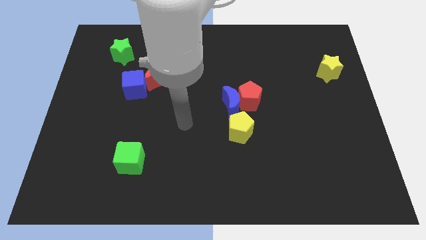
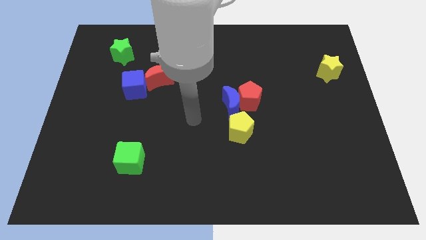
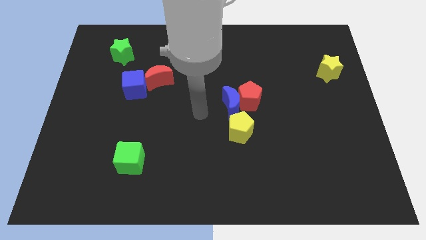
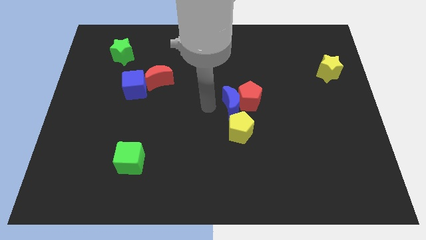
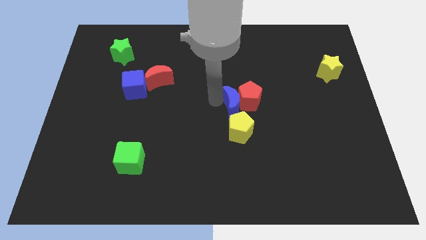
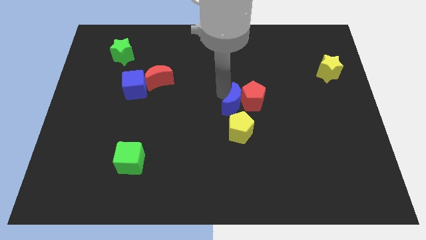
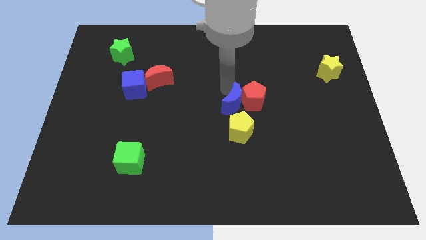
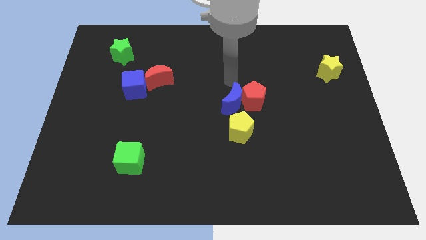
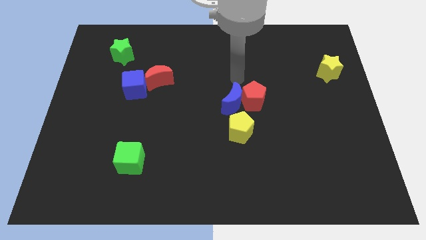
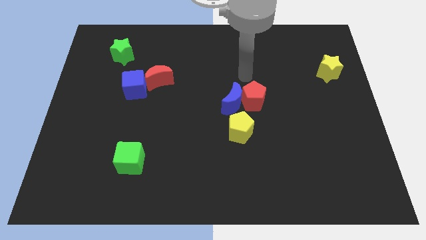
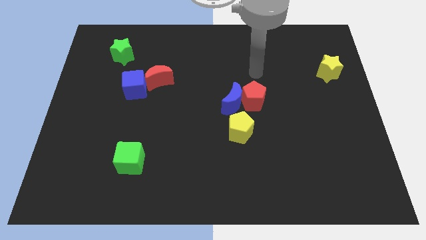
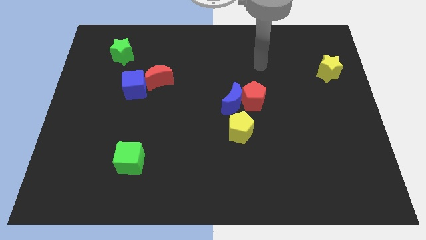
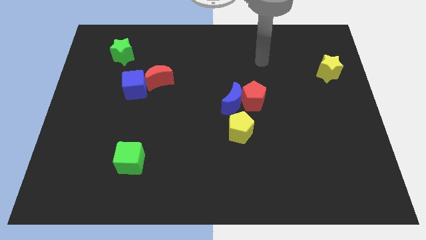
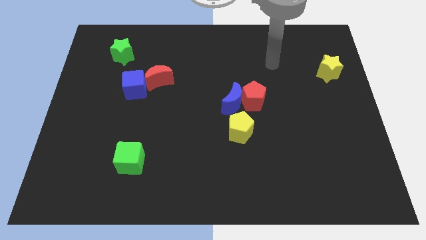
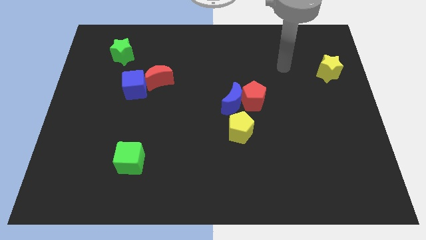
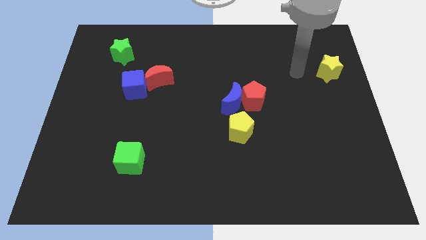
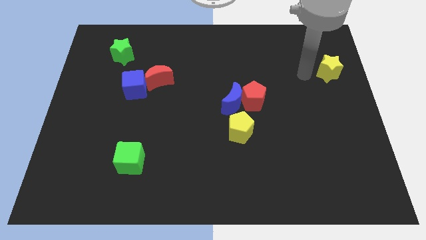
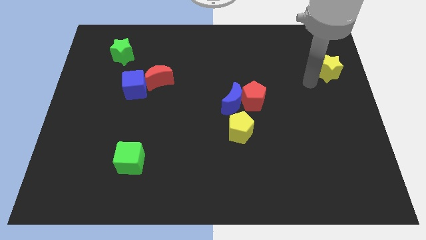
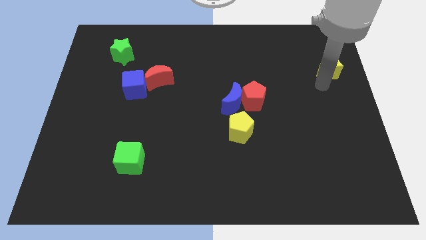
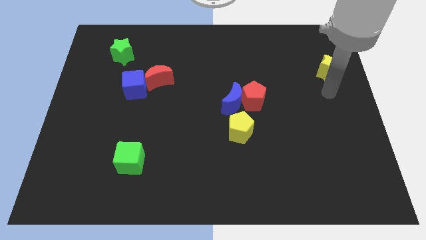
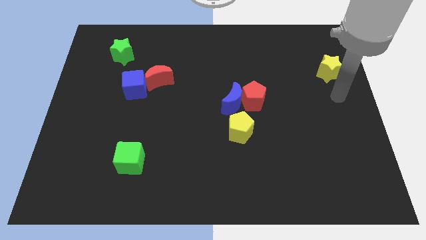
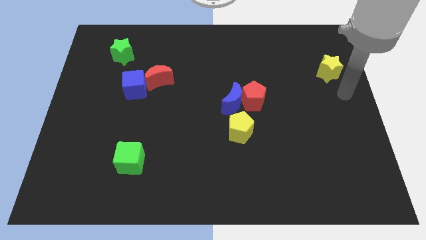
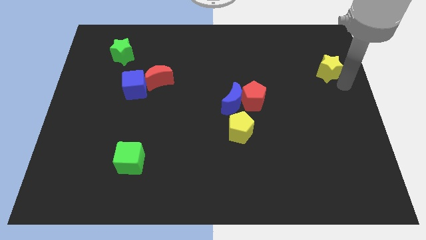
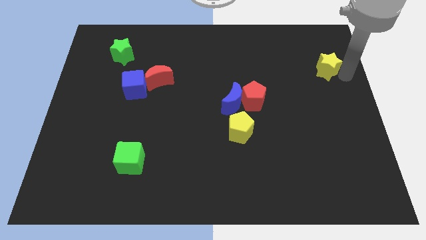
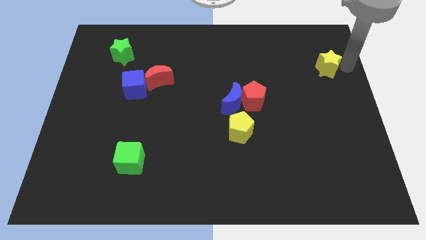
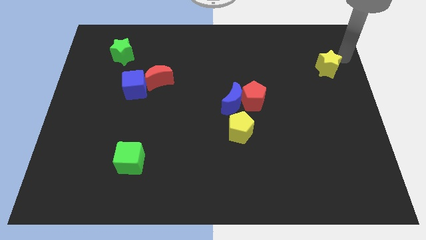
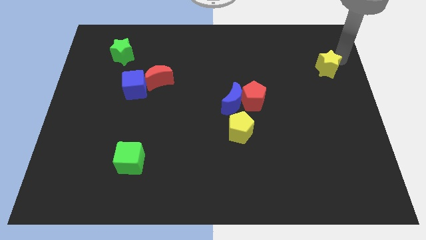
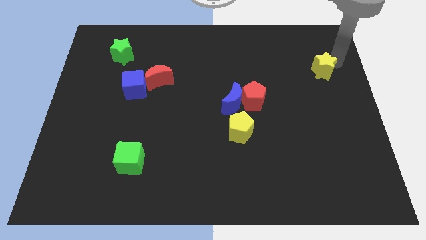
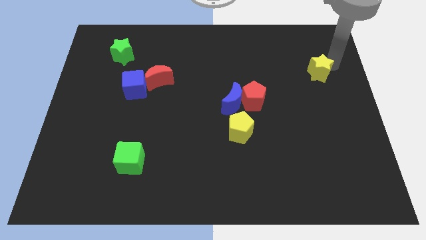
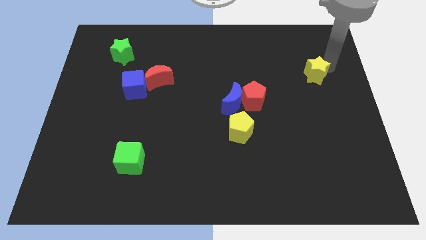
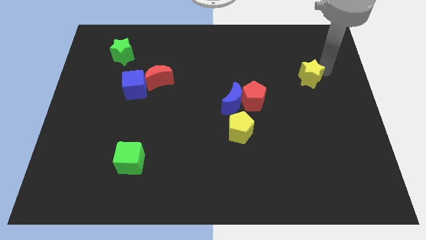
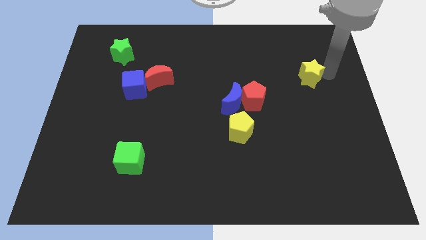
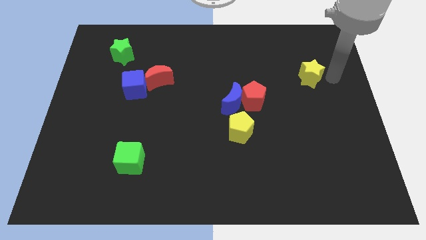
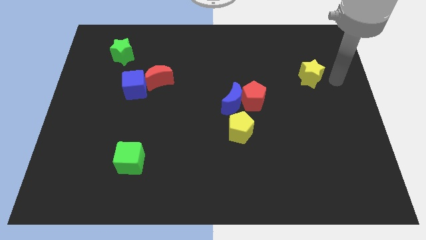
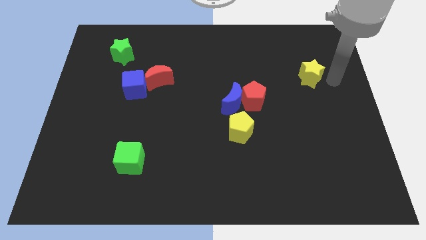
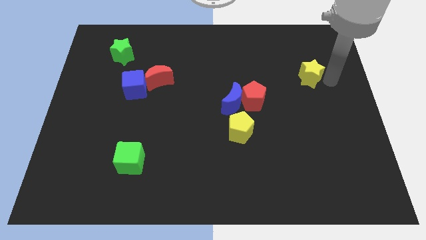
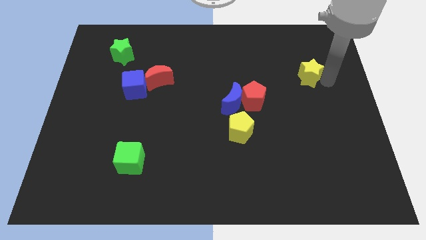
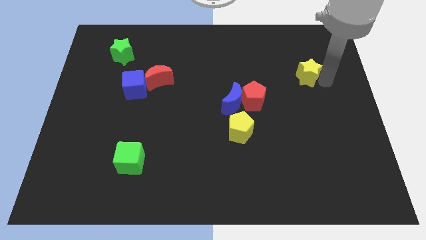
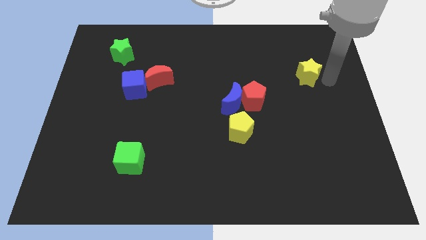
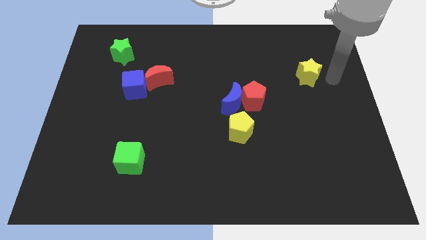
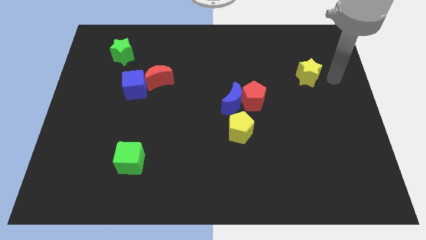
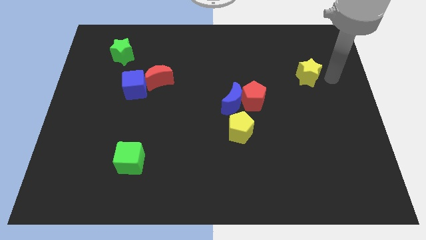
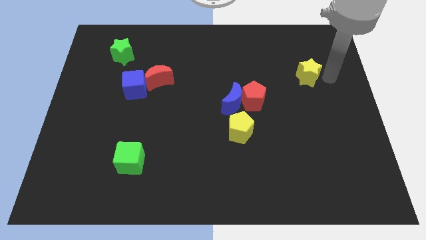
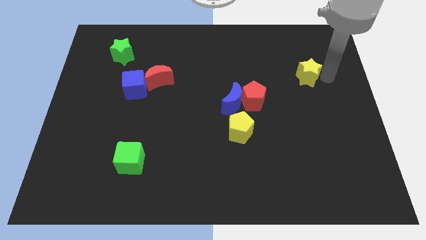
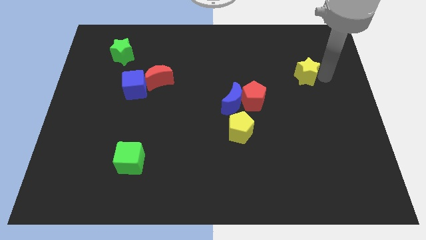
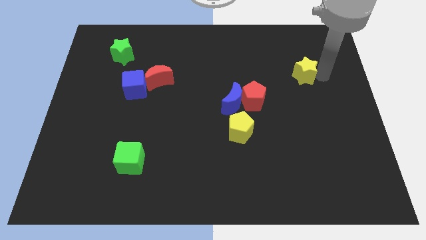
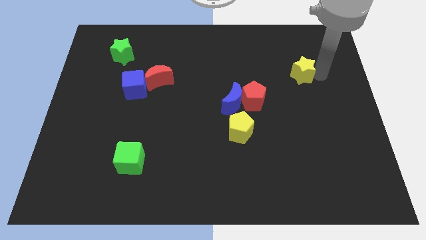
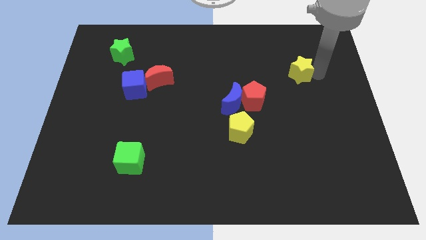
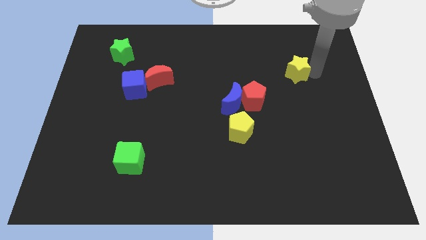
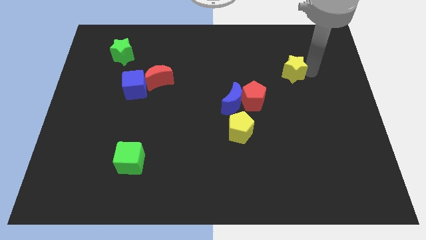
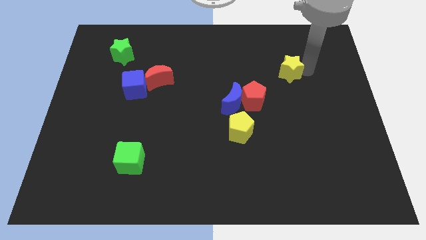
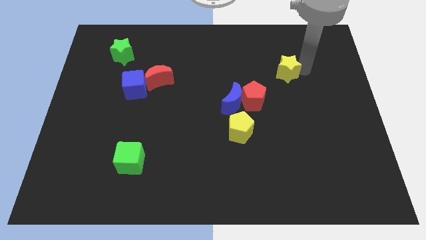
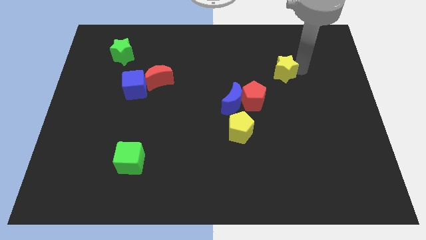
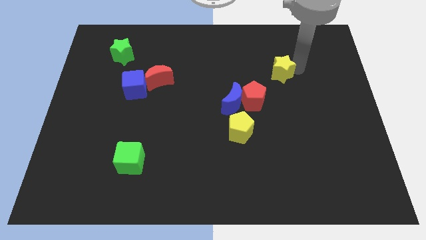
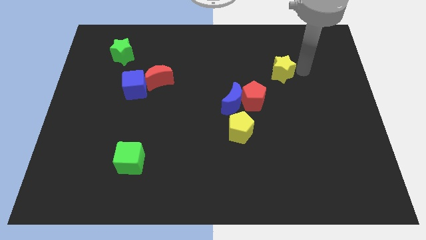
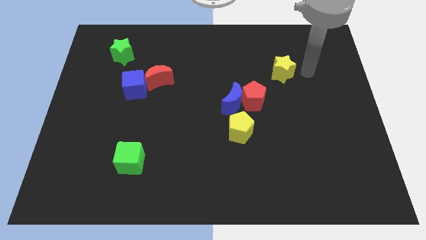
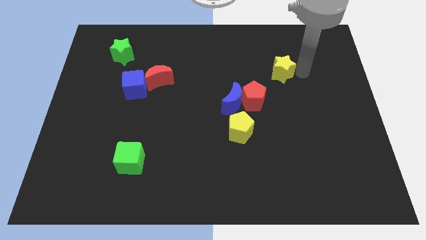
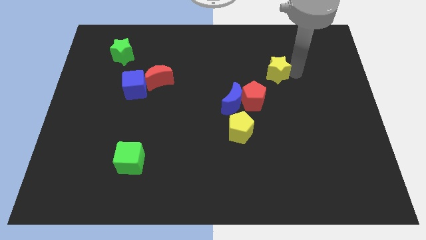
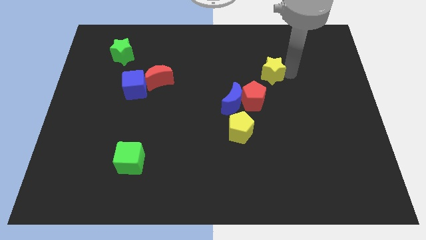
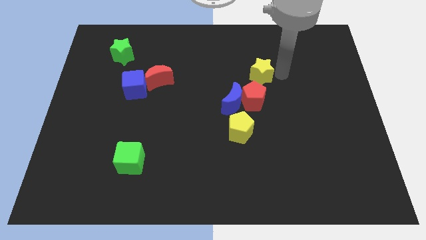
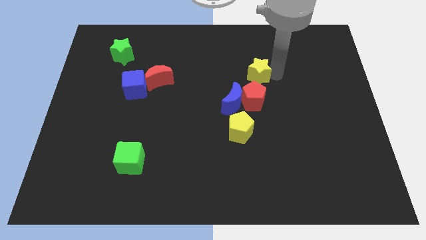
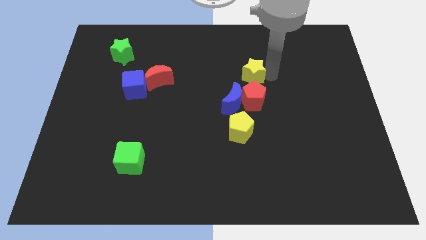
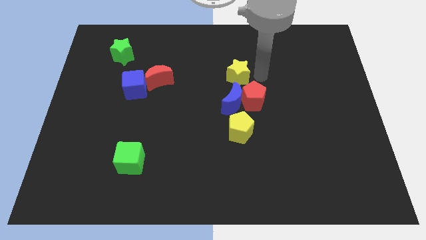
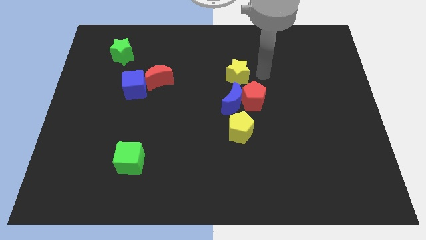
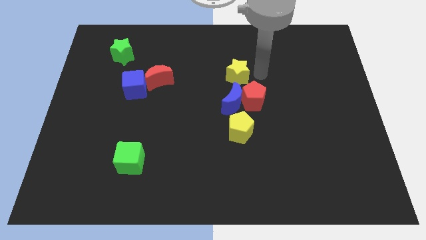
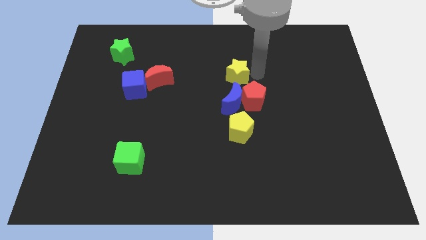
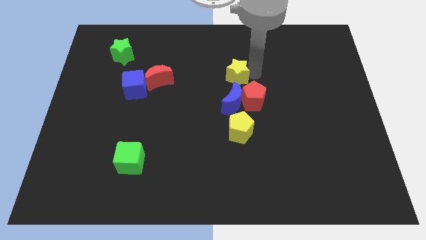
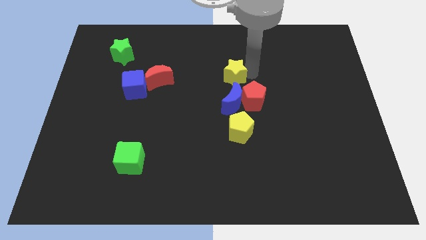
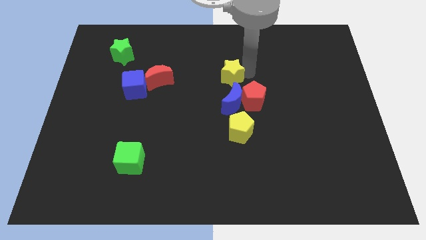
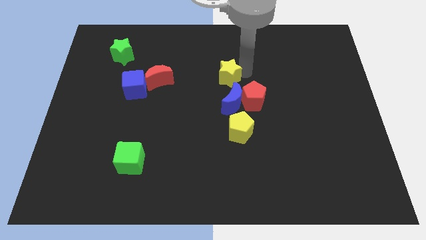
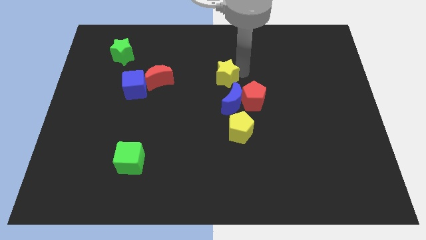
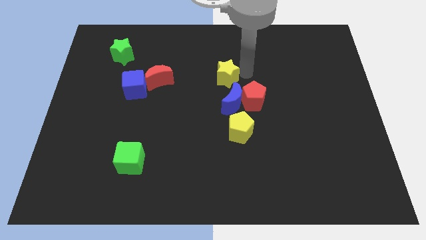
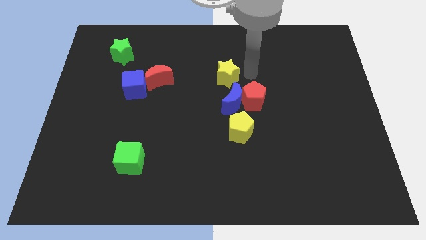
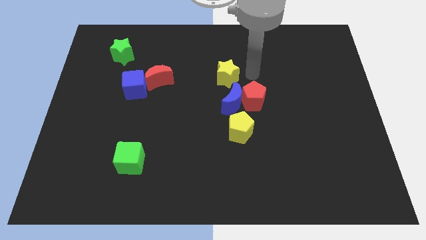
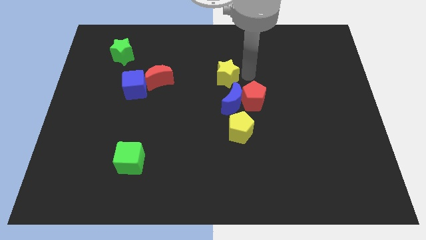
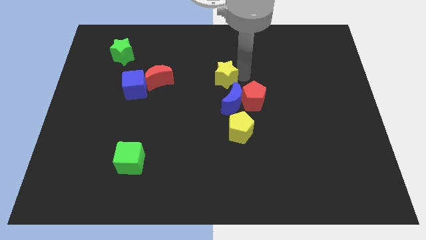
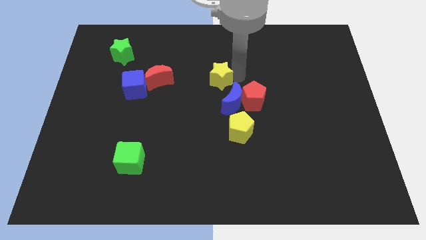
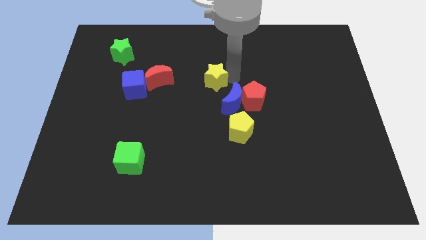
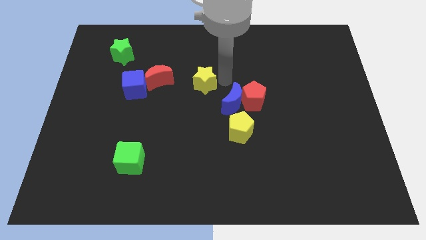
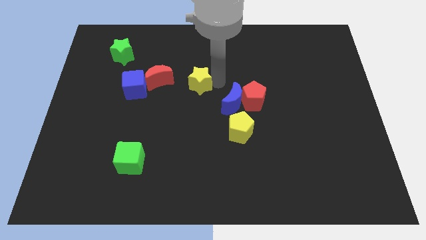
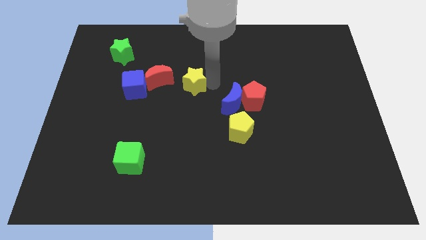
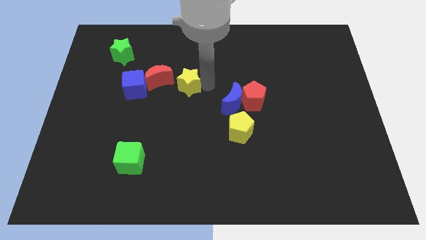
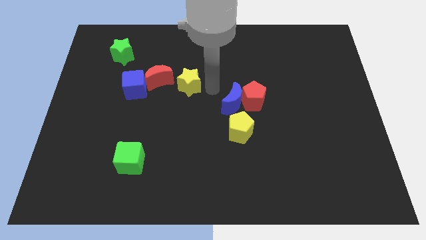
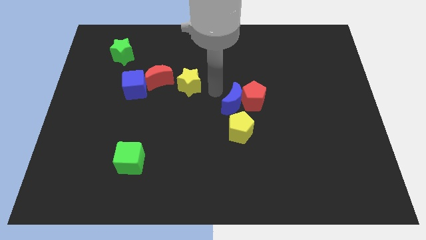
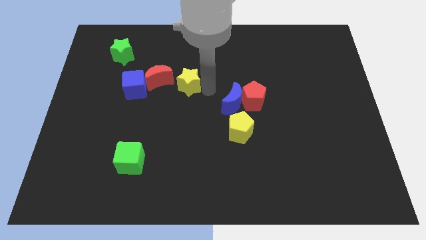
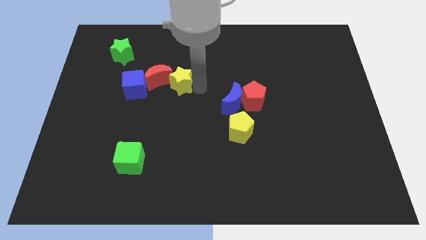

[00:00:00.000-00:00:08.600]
push the yellow star close to the red moon
